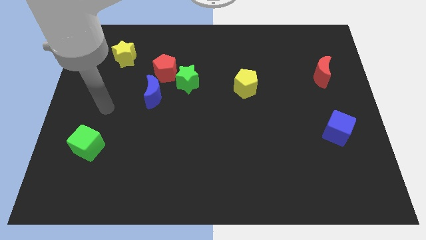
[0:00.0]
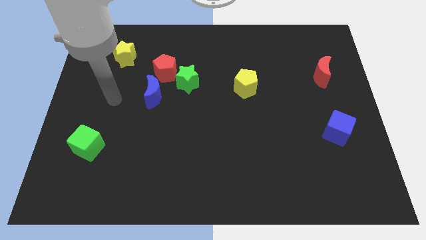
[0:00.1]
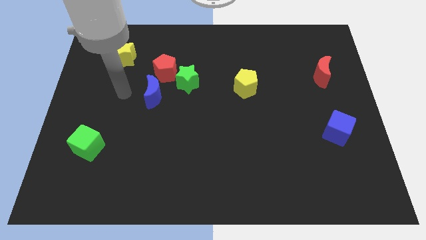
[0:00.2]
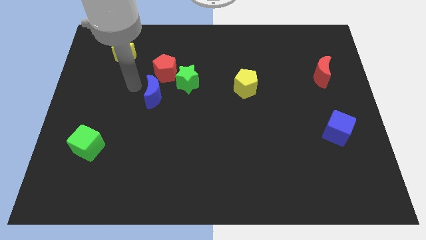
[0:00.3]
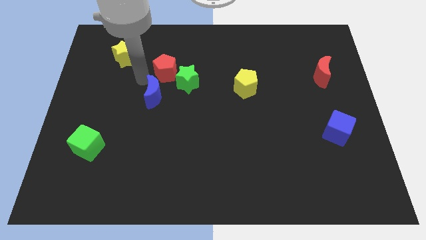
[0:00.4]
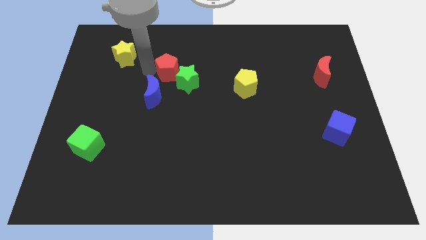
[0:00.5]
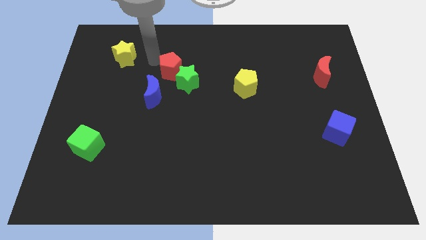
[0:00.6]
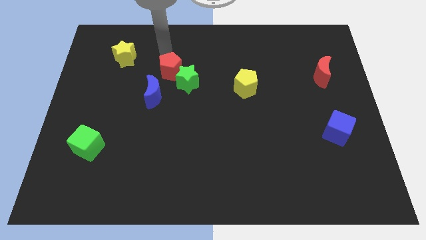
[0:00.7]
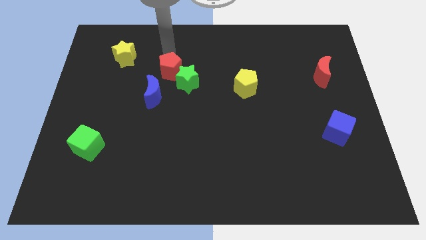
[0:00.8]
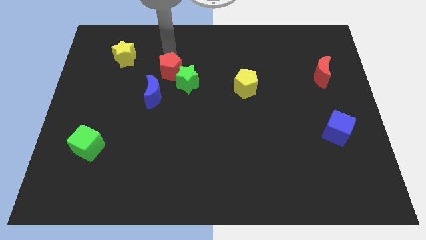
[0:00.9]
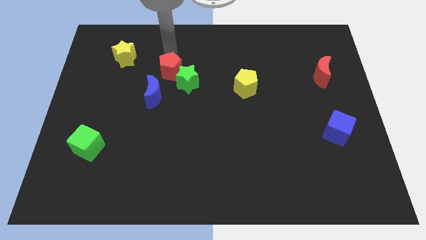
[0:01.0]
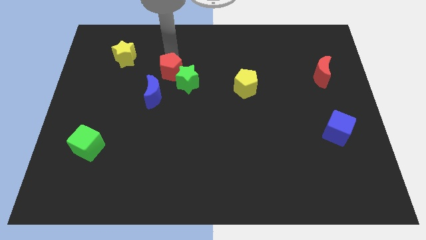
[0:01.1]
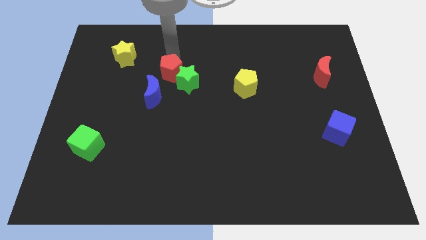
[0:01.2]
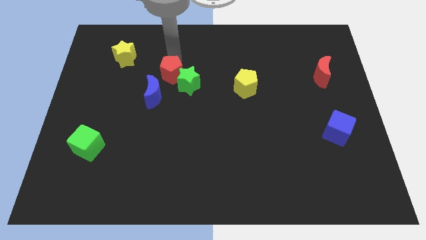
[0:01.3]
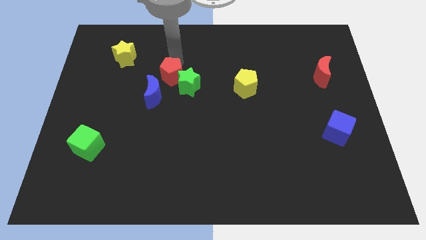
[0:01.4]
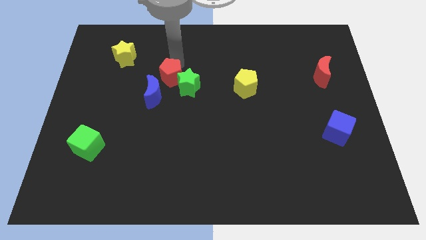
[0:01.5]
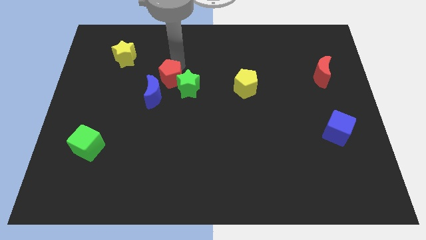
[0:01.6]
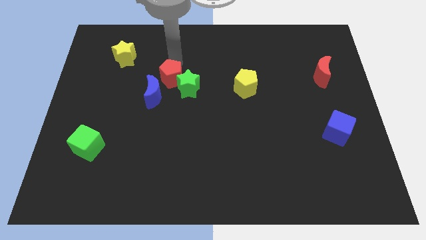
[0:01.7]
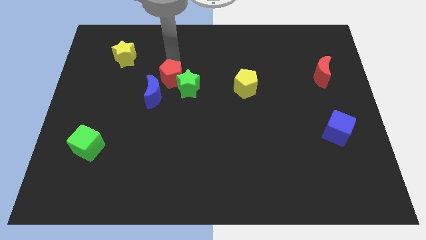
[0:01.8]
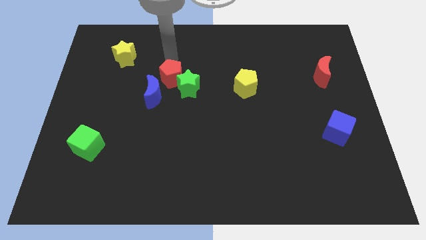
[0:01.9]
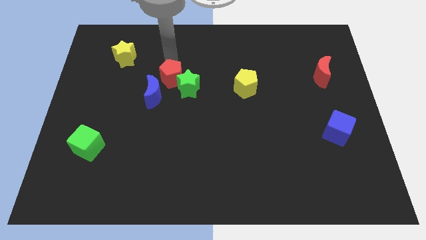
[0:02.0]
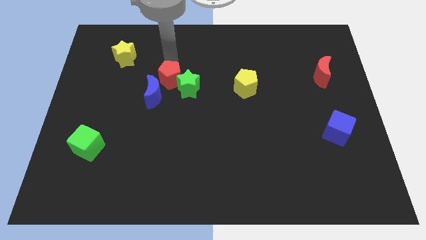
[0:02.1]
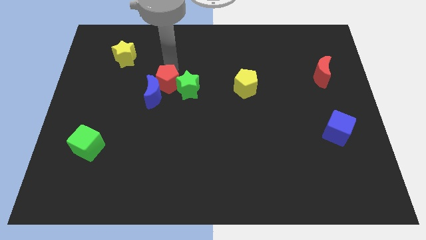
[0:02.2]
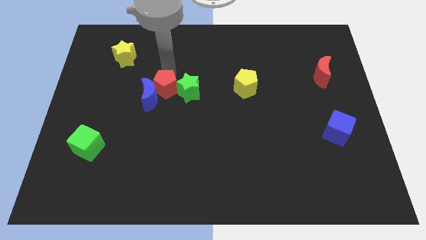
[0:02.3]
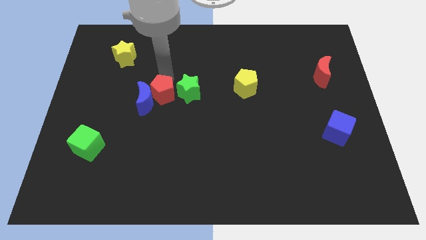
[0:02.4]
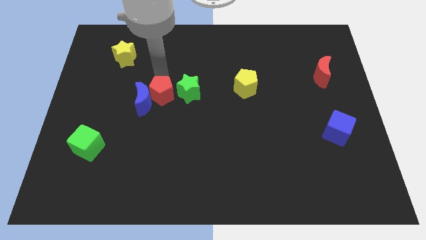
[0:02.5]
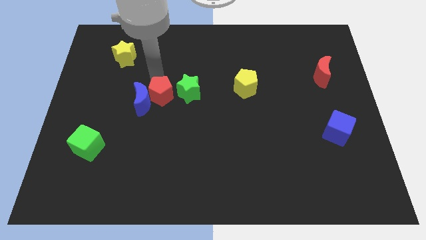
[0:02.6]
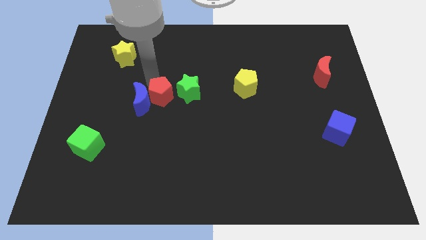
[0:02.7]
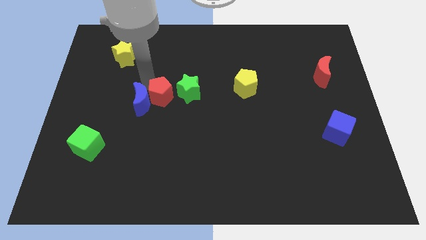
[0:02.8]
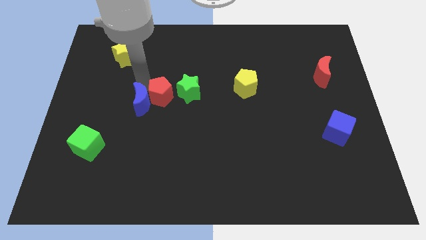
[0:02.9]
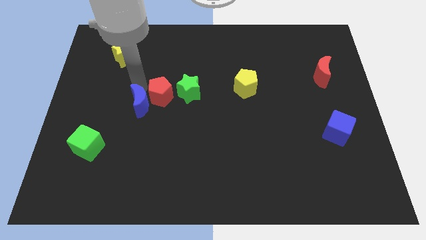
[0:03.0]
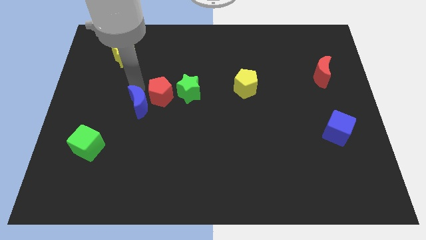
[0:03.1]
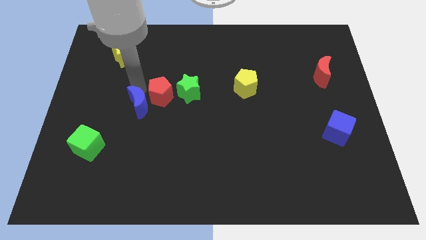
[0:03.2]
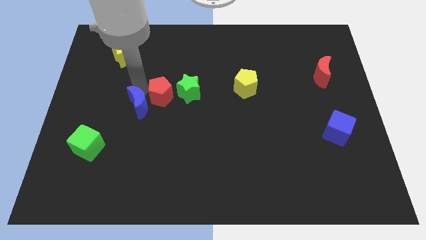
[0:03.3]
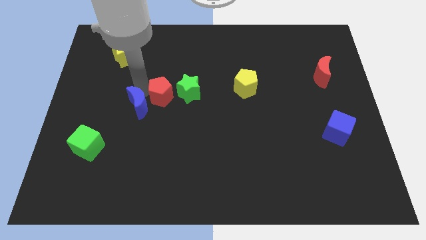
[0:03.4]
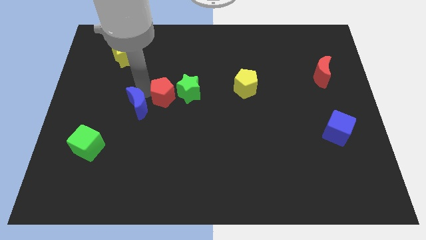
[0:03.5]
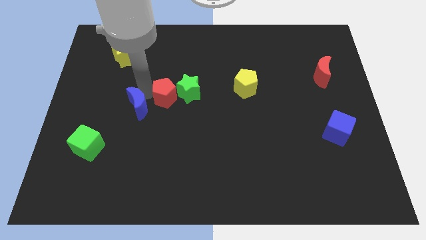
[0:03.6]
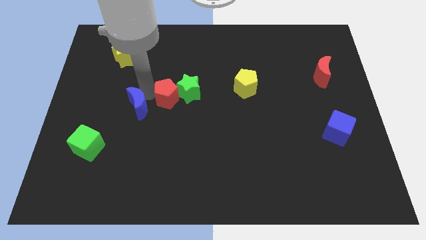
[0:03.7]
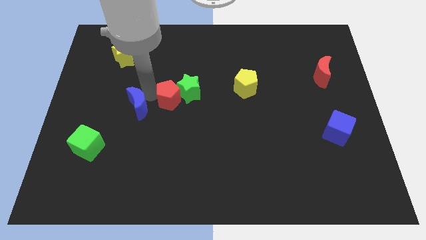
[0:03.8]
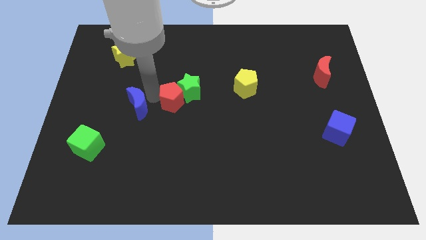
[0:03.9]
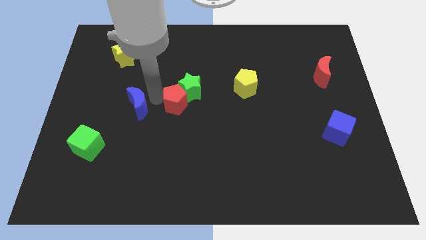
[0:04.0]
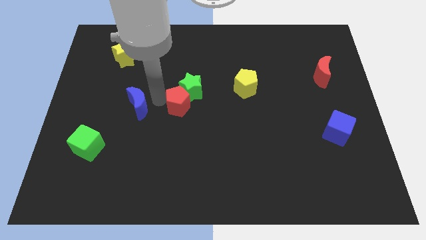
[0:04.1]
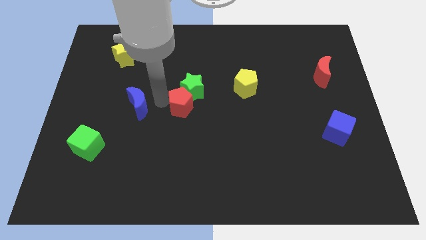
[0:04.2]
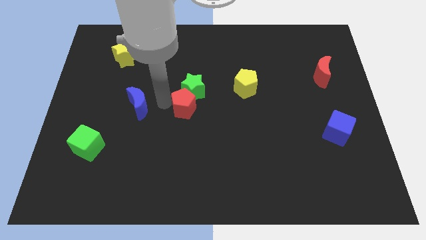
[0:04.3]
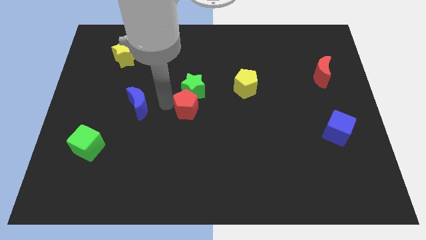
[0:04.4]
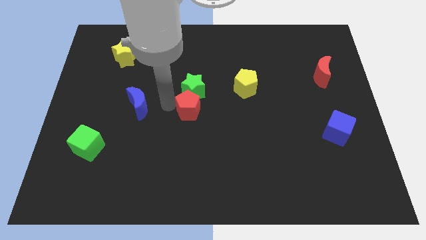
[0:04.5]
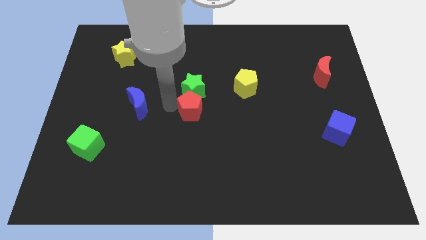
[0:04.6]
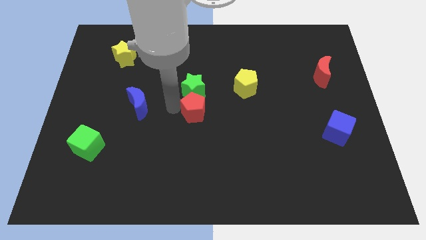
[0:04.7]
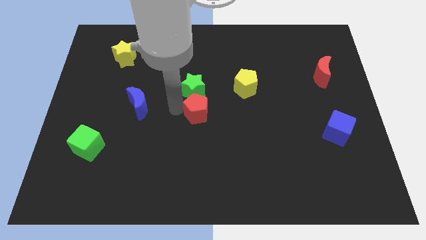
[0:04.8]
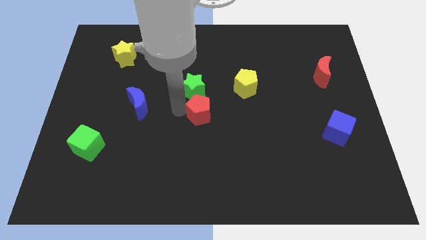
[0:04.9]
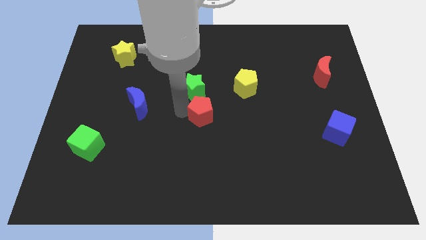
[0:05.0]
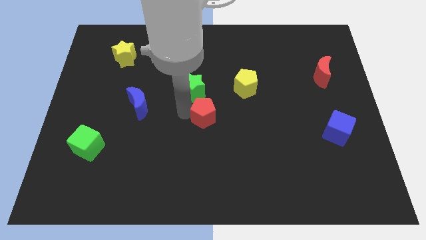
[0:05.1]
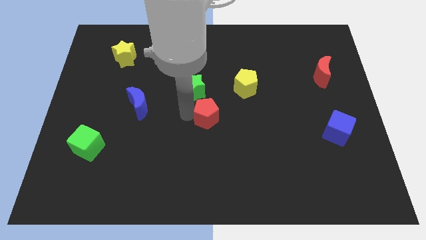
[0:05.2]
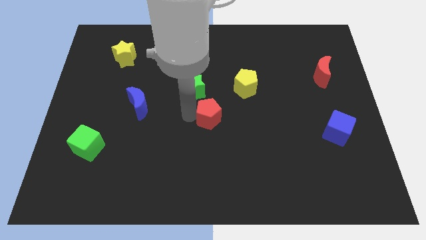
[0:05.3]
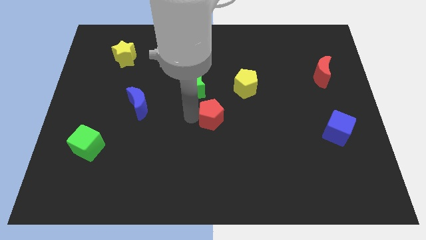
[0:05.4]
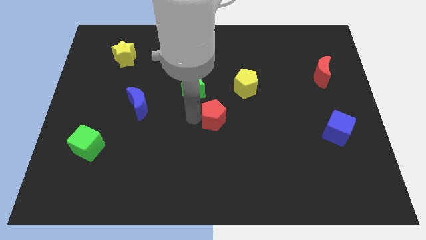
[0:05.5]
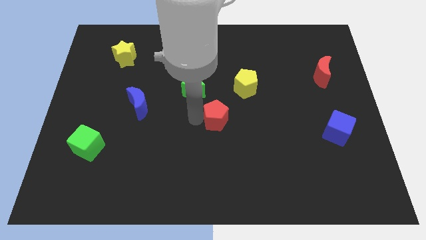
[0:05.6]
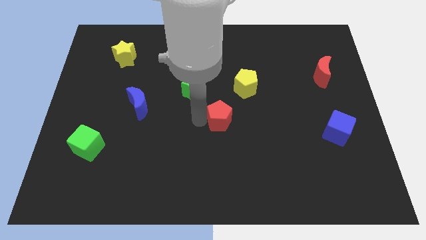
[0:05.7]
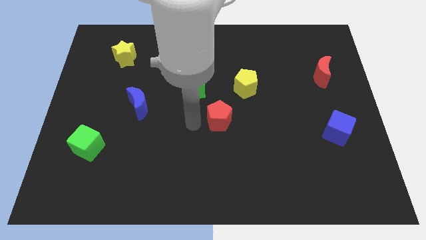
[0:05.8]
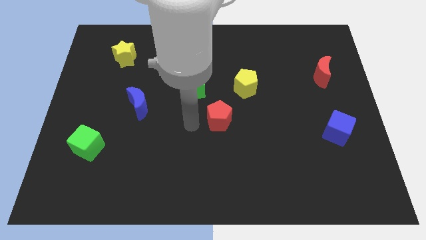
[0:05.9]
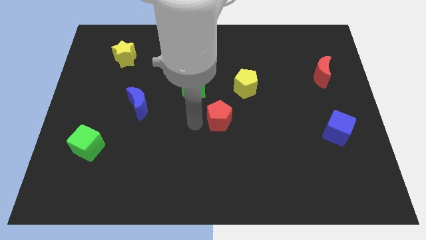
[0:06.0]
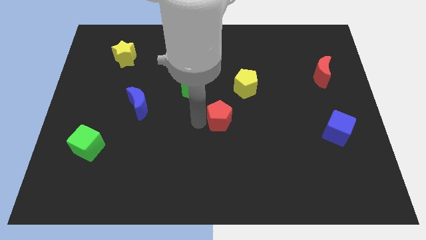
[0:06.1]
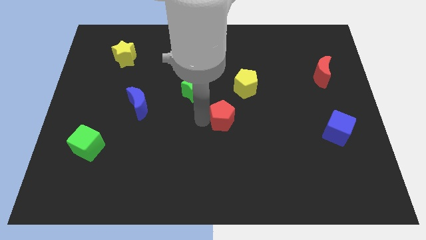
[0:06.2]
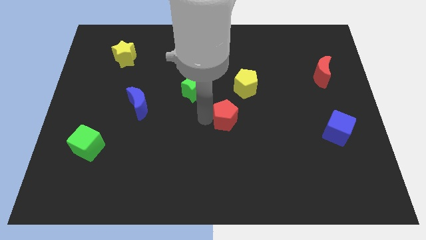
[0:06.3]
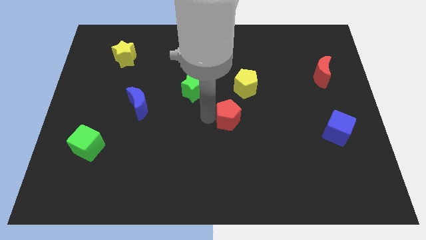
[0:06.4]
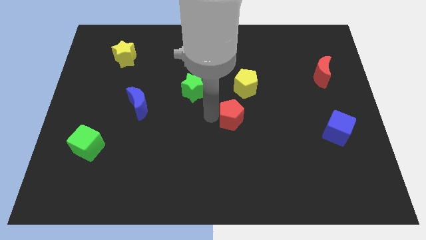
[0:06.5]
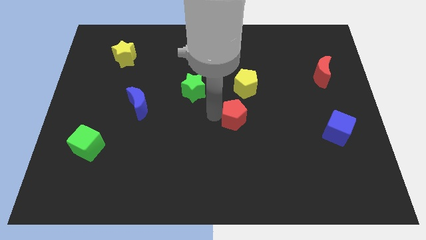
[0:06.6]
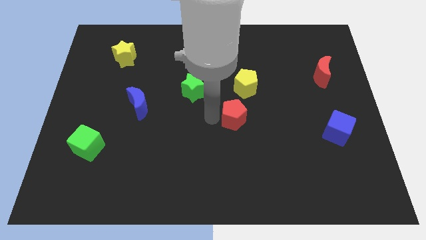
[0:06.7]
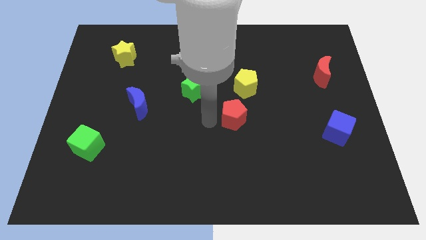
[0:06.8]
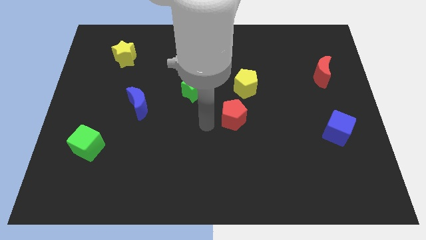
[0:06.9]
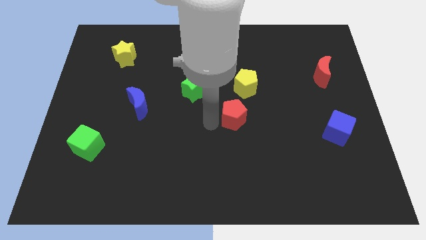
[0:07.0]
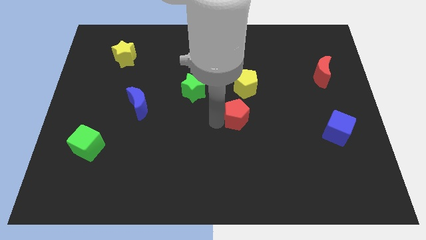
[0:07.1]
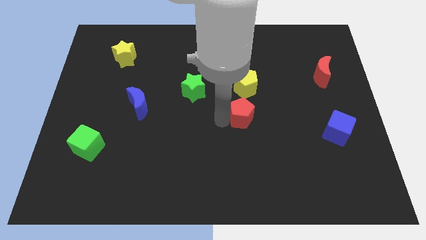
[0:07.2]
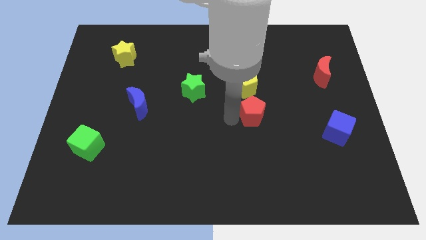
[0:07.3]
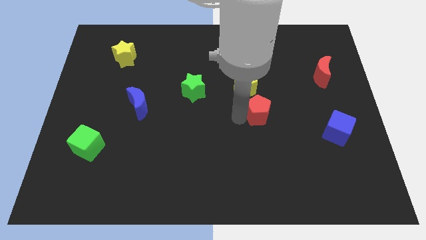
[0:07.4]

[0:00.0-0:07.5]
move the red pentagon to the bottom right side of the yellow pentagon
